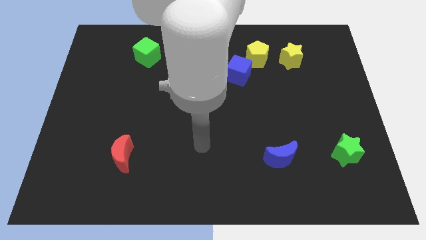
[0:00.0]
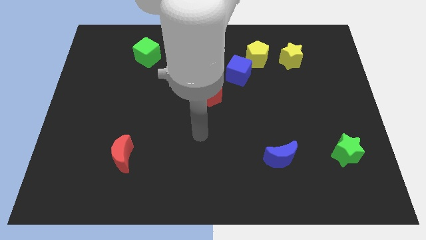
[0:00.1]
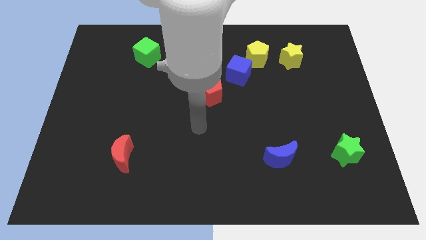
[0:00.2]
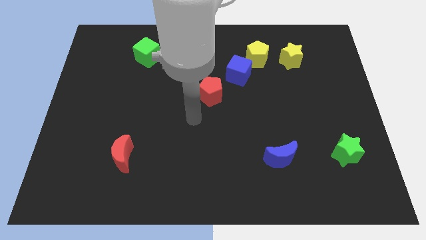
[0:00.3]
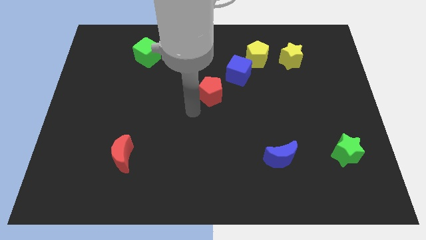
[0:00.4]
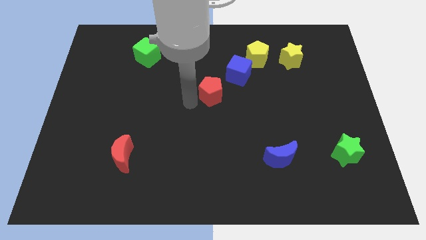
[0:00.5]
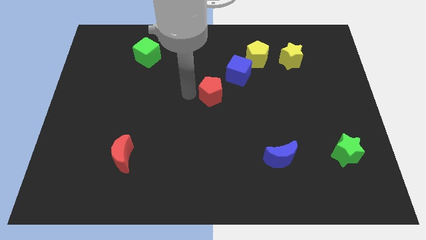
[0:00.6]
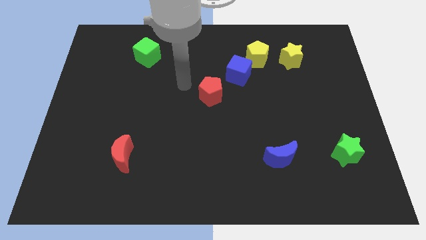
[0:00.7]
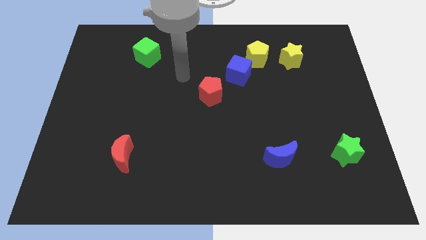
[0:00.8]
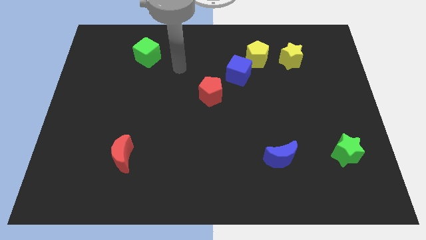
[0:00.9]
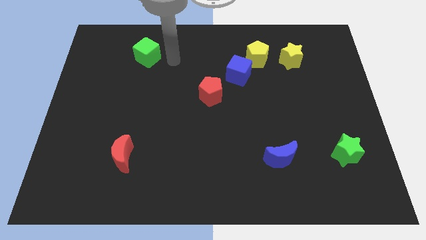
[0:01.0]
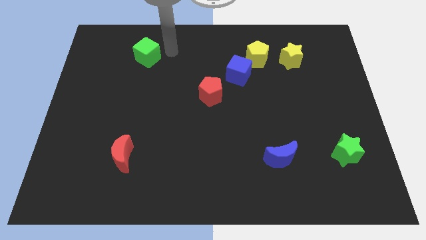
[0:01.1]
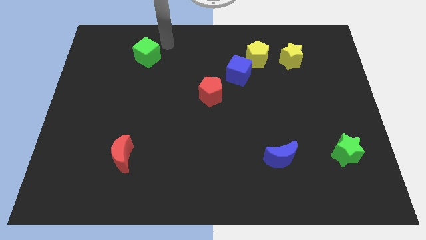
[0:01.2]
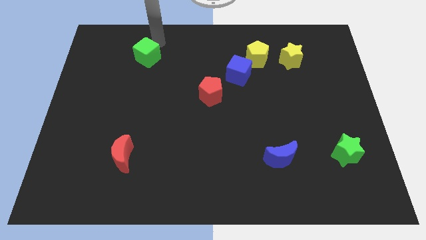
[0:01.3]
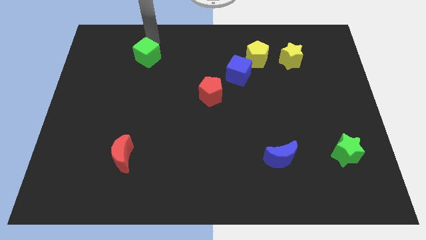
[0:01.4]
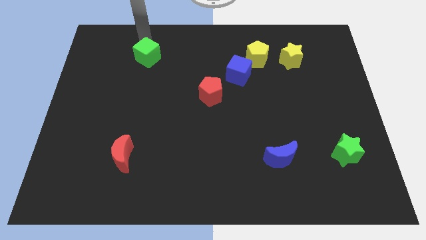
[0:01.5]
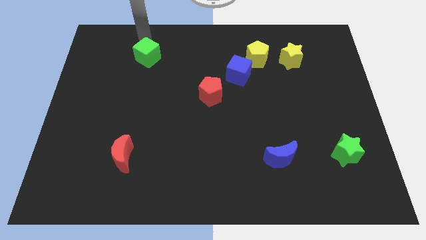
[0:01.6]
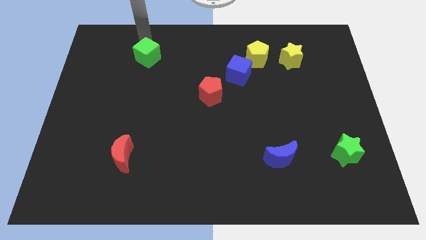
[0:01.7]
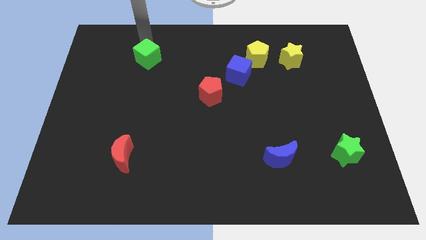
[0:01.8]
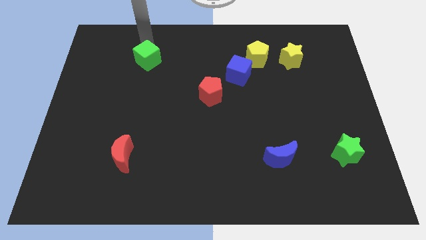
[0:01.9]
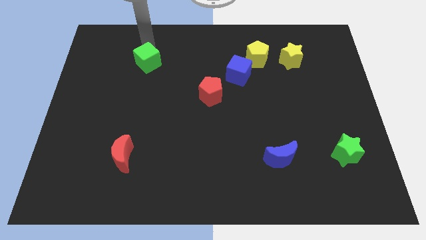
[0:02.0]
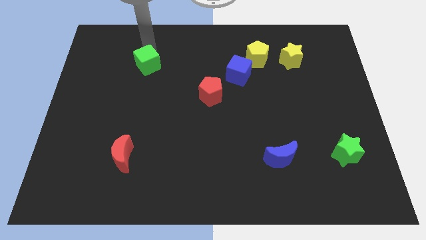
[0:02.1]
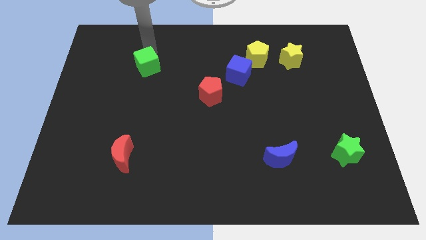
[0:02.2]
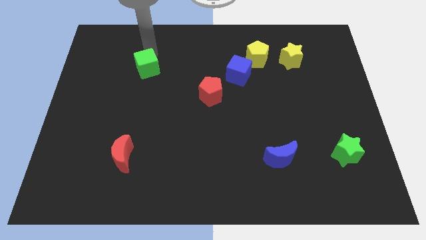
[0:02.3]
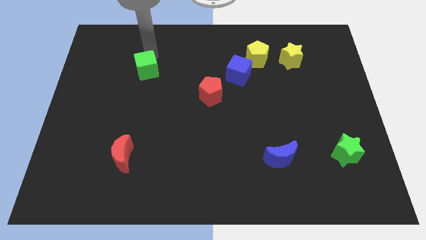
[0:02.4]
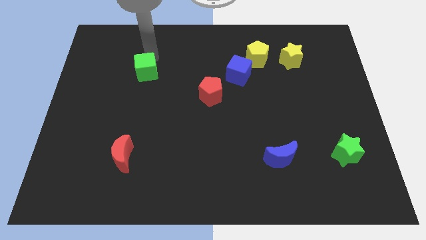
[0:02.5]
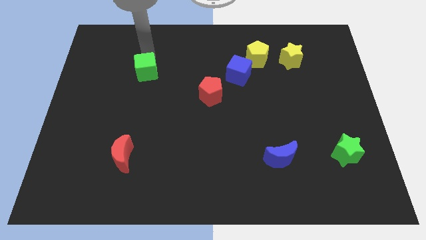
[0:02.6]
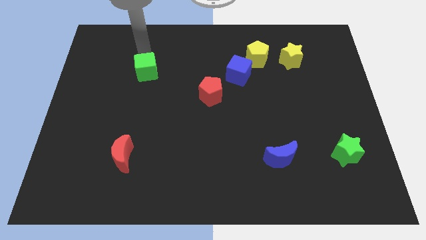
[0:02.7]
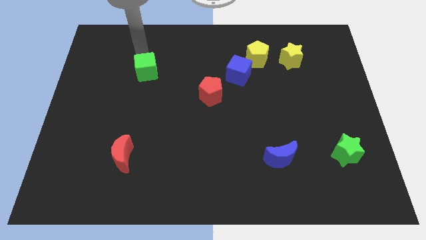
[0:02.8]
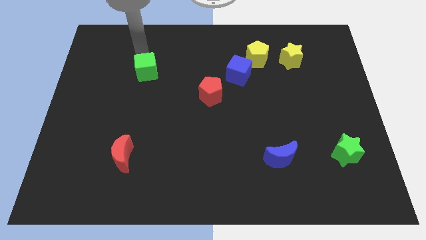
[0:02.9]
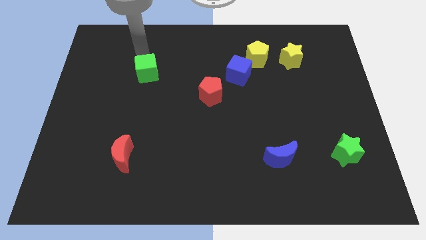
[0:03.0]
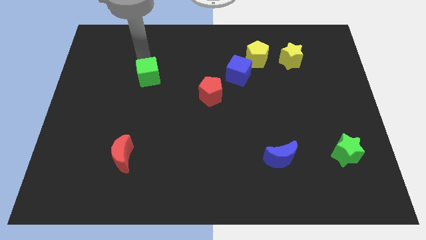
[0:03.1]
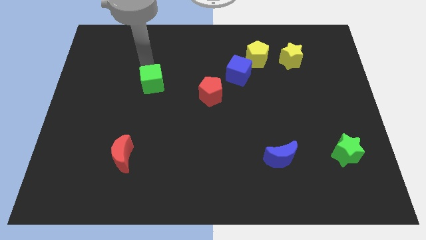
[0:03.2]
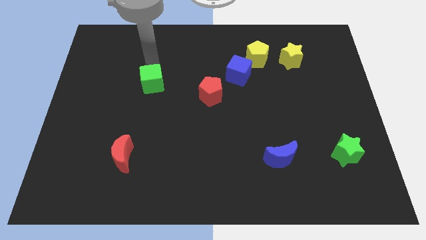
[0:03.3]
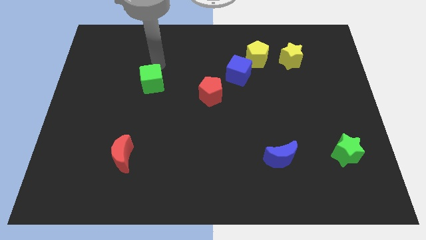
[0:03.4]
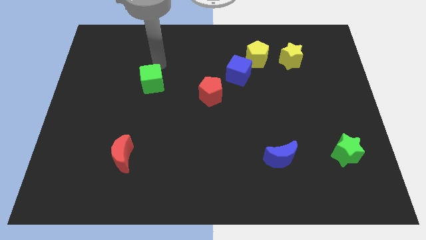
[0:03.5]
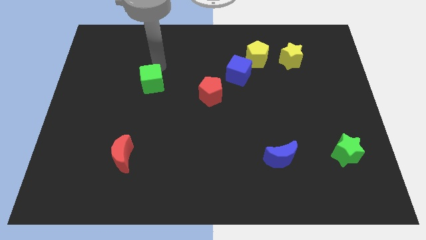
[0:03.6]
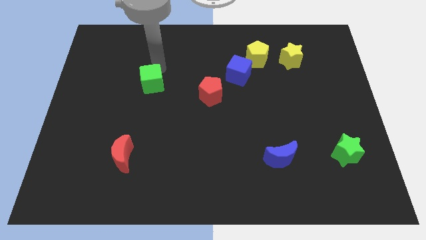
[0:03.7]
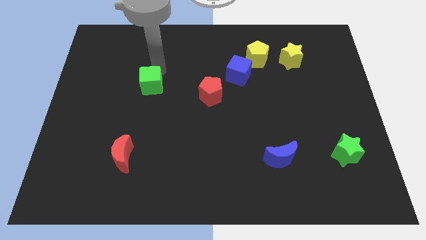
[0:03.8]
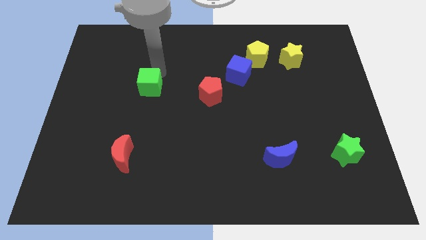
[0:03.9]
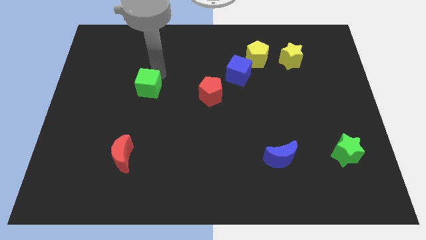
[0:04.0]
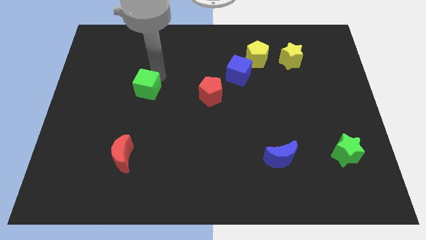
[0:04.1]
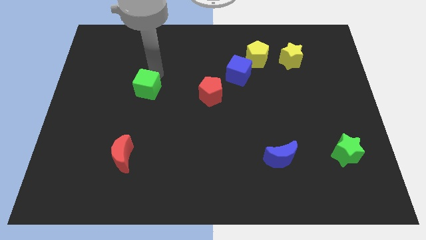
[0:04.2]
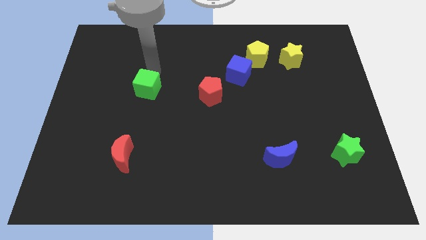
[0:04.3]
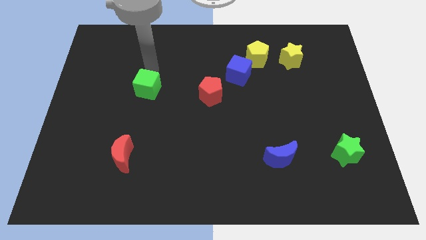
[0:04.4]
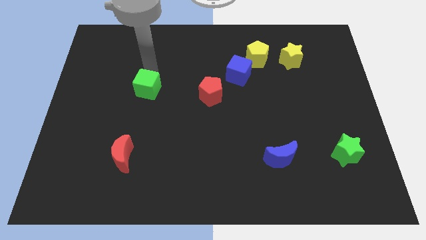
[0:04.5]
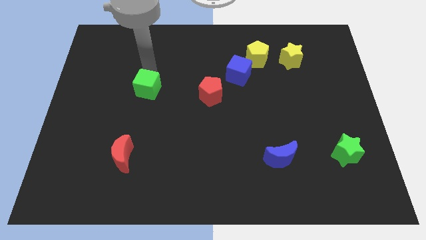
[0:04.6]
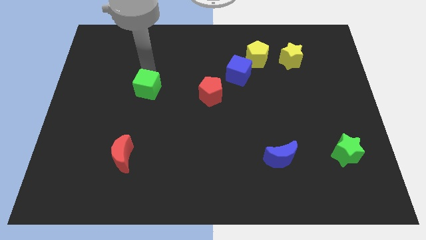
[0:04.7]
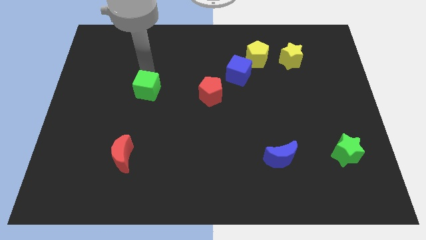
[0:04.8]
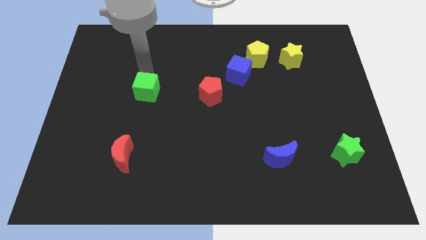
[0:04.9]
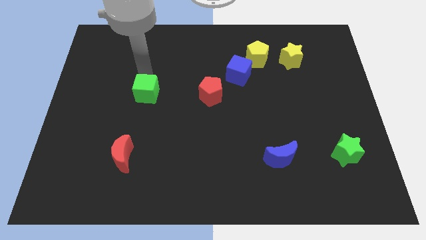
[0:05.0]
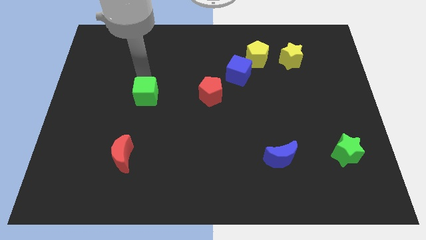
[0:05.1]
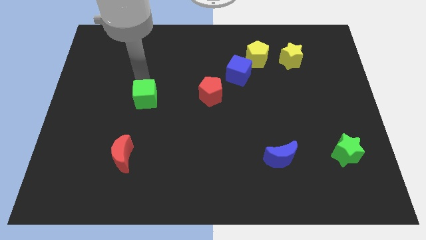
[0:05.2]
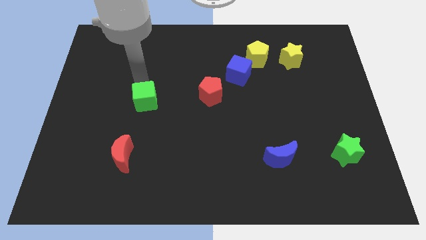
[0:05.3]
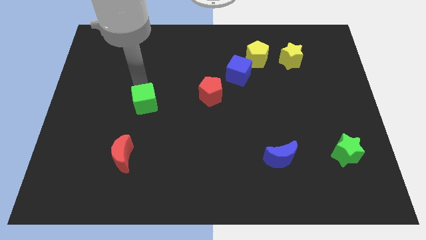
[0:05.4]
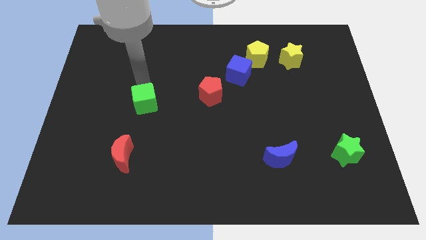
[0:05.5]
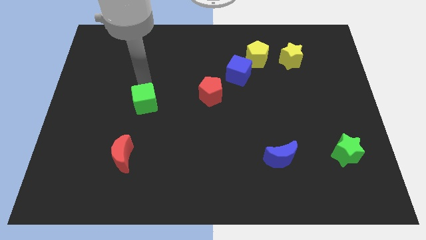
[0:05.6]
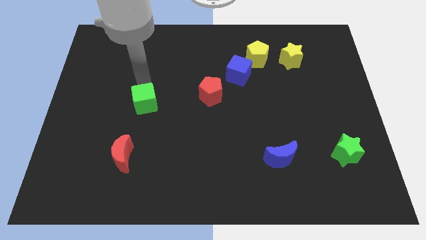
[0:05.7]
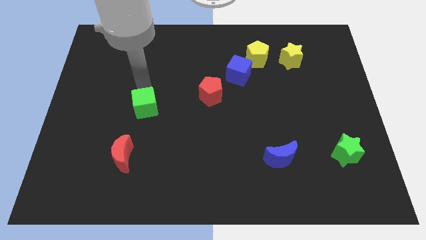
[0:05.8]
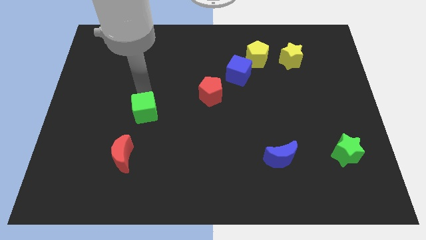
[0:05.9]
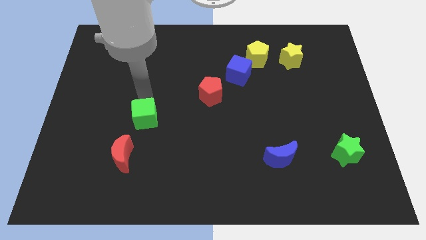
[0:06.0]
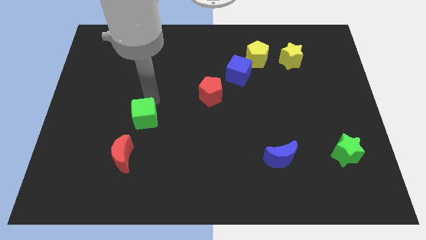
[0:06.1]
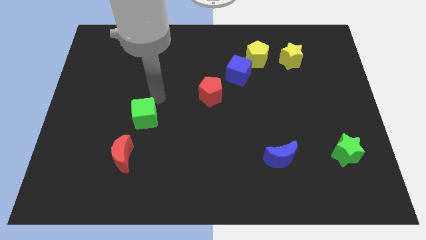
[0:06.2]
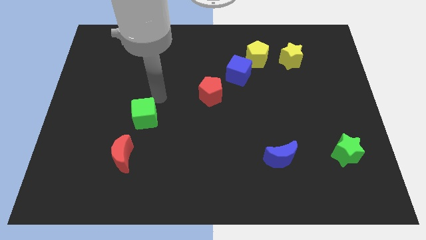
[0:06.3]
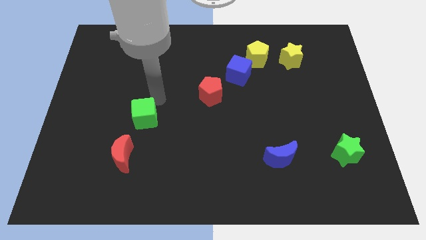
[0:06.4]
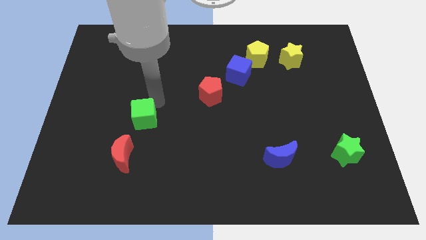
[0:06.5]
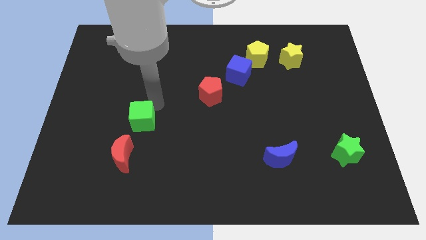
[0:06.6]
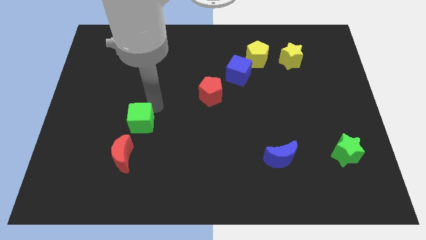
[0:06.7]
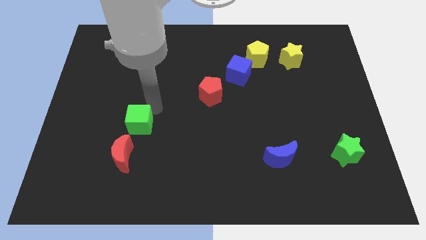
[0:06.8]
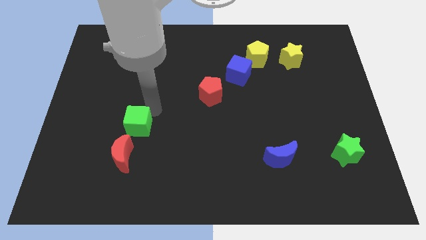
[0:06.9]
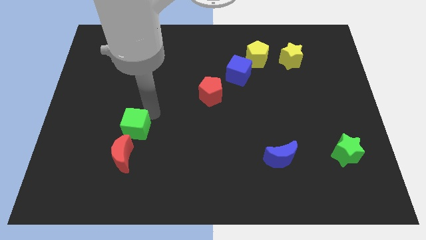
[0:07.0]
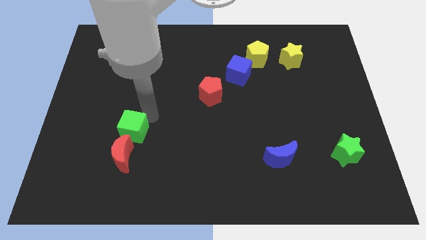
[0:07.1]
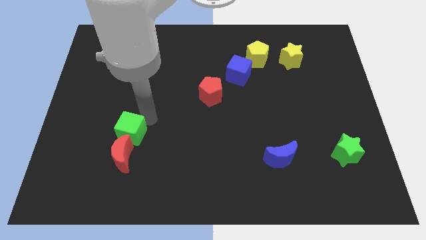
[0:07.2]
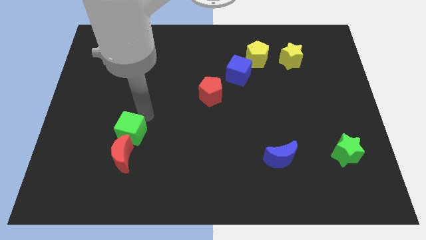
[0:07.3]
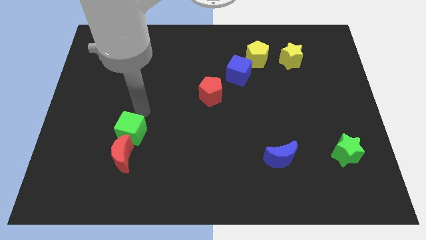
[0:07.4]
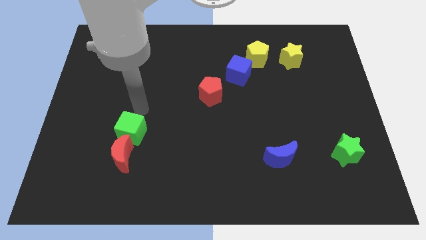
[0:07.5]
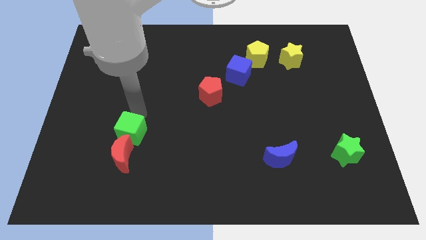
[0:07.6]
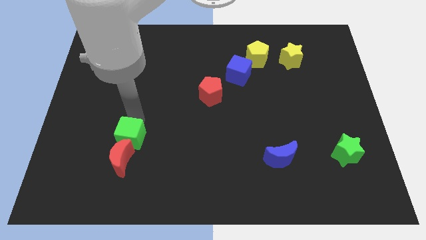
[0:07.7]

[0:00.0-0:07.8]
push the green cube to the red moon
